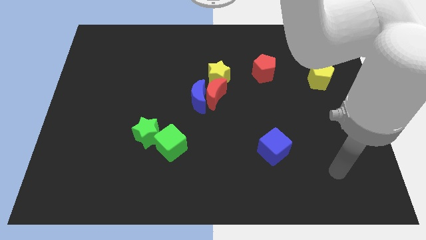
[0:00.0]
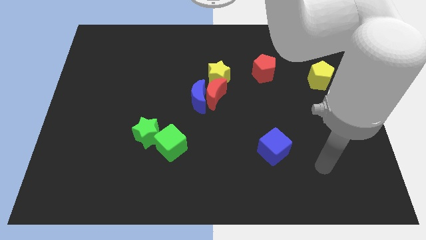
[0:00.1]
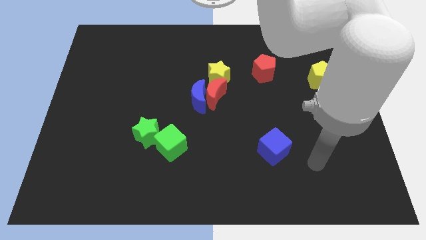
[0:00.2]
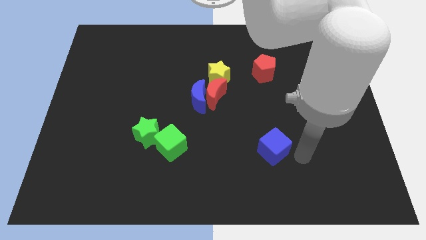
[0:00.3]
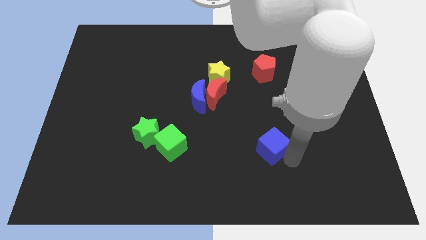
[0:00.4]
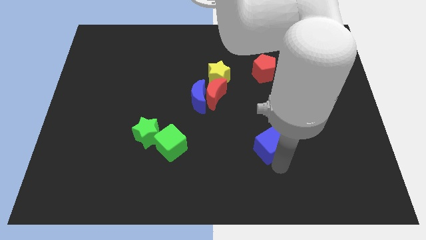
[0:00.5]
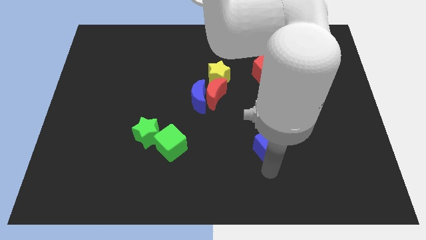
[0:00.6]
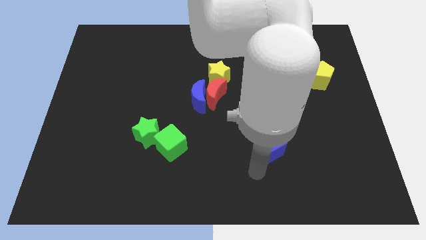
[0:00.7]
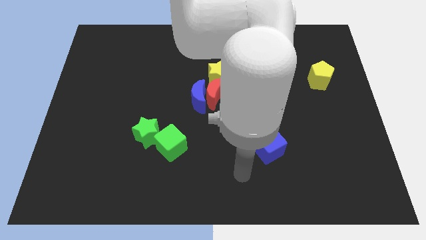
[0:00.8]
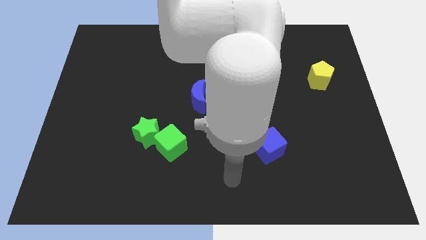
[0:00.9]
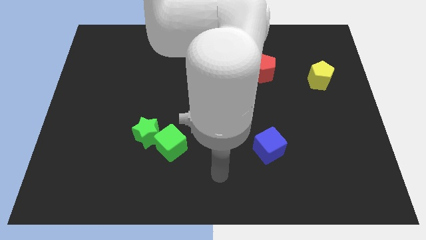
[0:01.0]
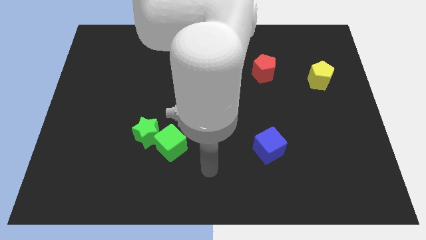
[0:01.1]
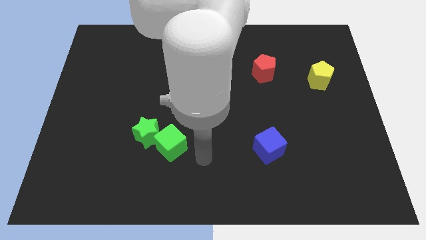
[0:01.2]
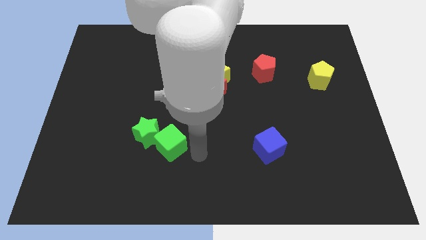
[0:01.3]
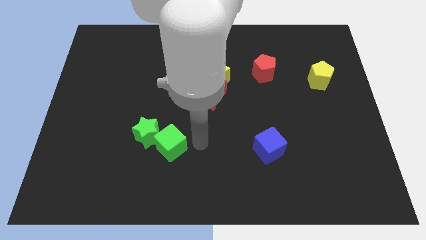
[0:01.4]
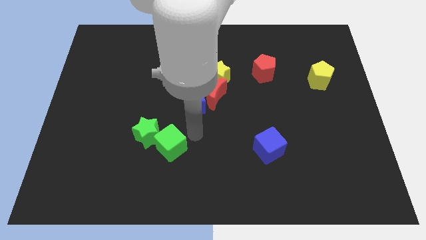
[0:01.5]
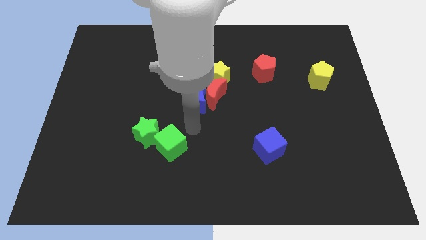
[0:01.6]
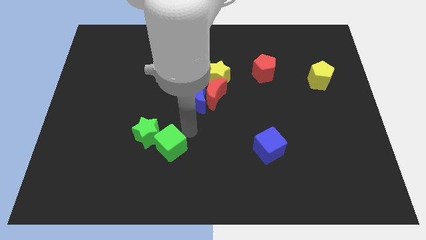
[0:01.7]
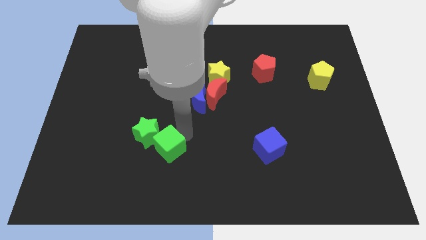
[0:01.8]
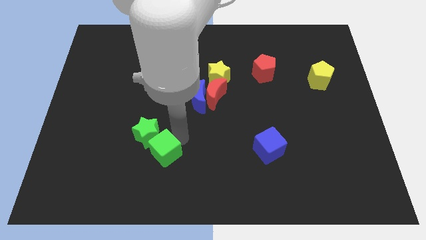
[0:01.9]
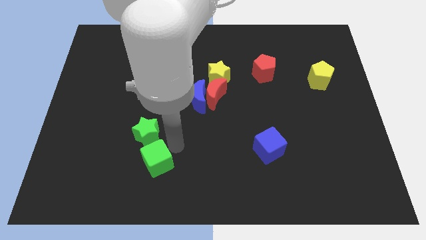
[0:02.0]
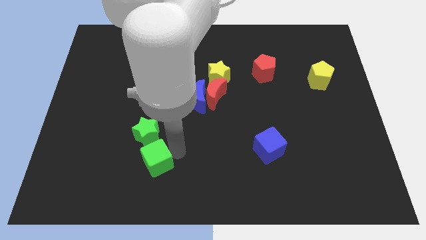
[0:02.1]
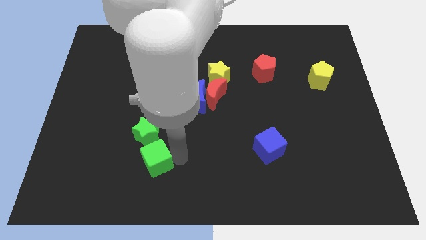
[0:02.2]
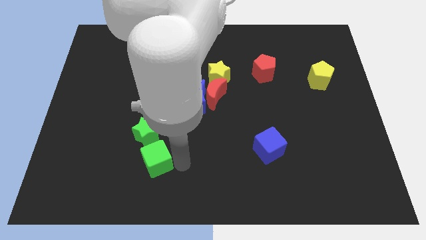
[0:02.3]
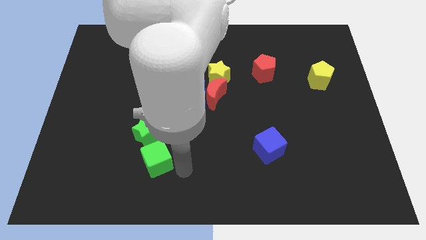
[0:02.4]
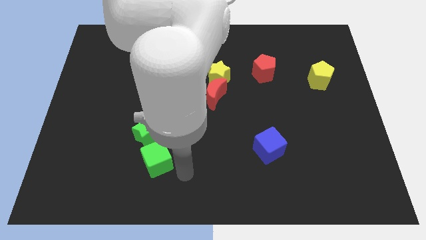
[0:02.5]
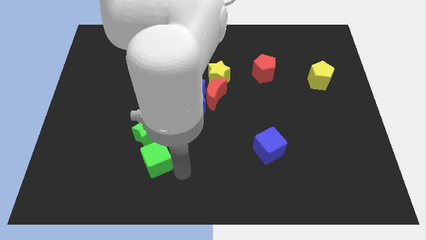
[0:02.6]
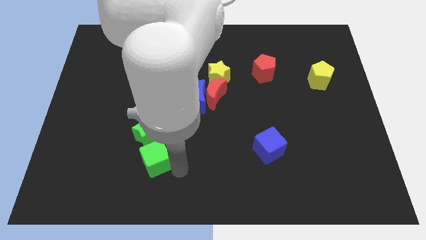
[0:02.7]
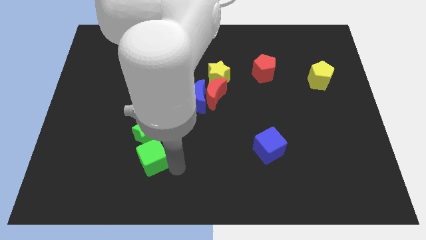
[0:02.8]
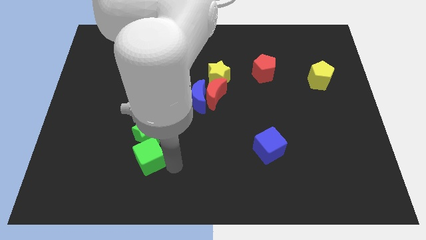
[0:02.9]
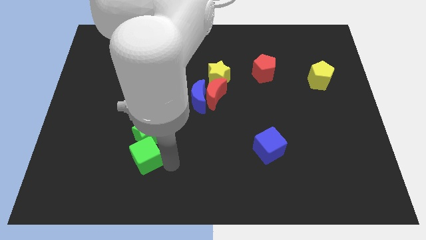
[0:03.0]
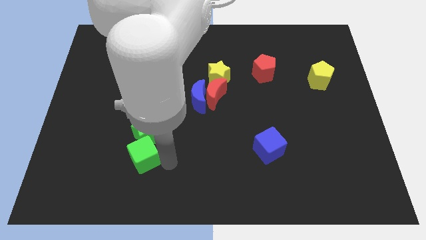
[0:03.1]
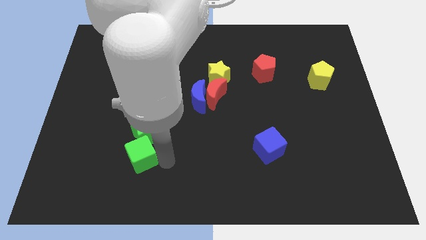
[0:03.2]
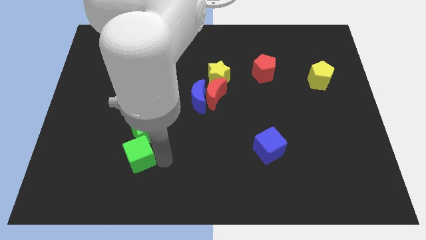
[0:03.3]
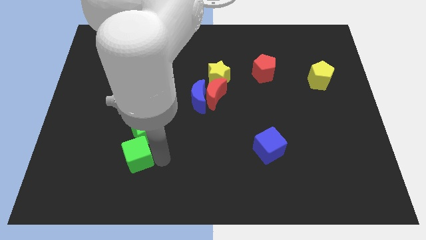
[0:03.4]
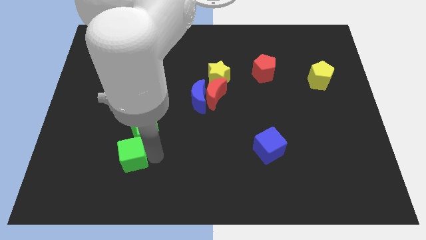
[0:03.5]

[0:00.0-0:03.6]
move the green cube left slightly

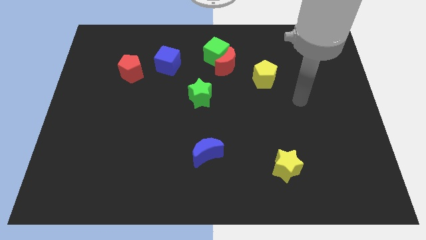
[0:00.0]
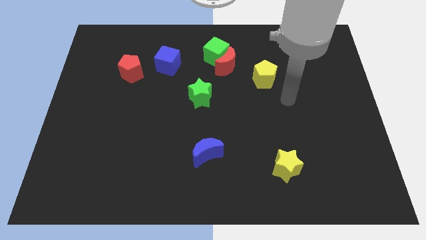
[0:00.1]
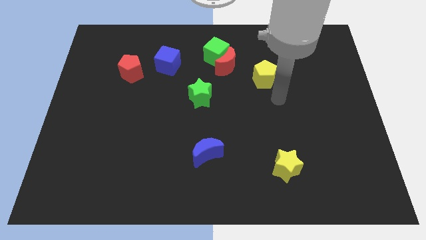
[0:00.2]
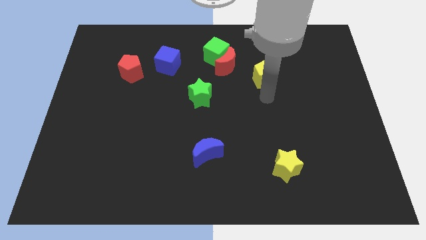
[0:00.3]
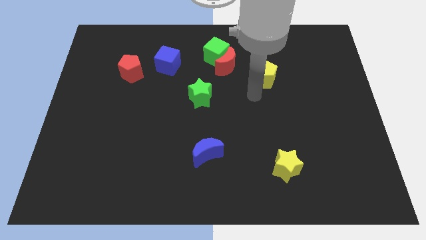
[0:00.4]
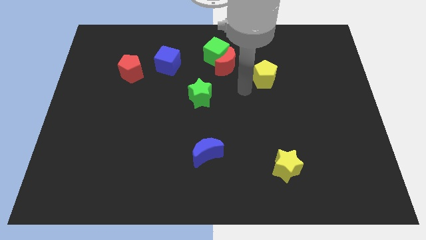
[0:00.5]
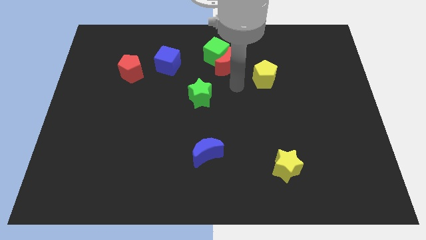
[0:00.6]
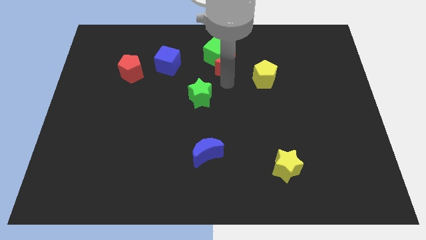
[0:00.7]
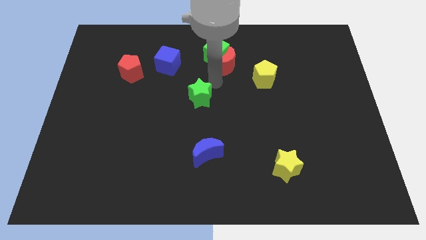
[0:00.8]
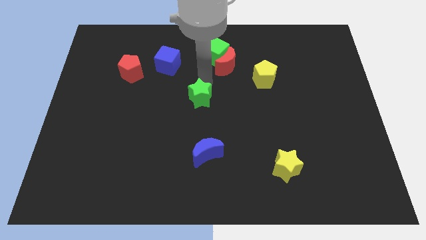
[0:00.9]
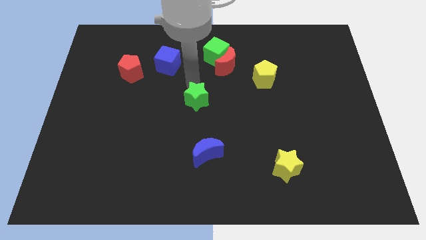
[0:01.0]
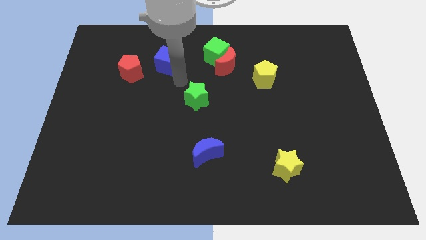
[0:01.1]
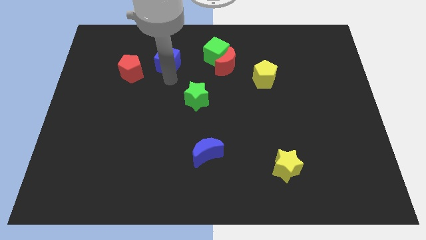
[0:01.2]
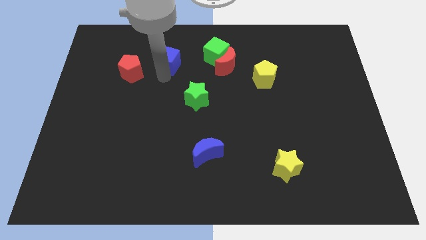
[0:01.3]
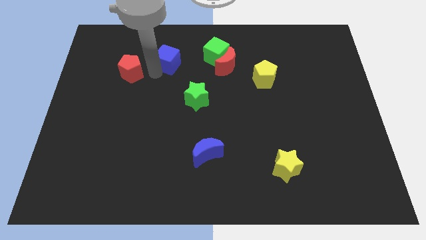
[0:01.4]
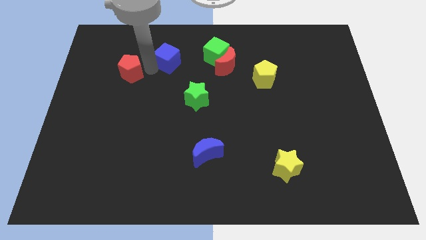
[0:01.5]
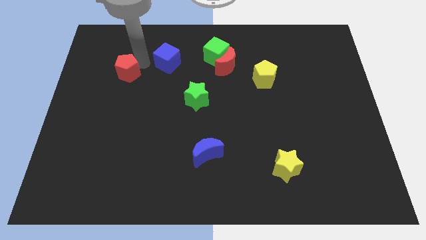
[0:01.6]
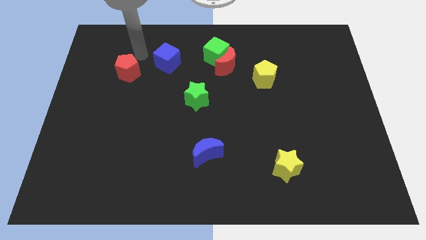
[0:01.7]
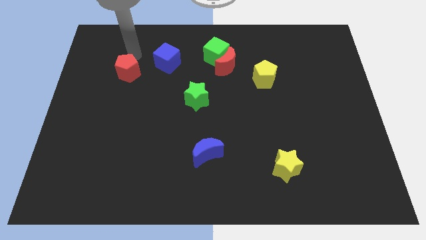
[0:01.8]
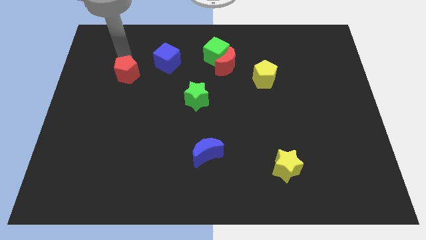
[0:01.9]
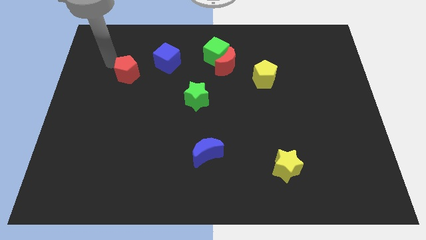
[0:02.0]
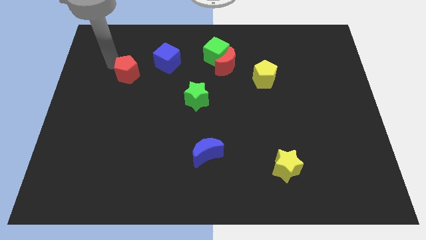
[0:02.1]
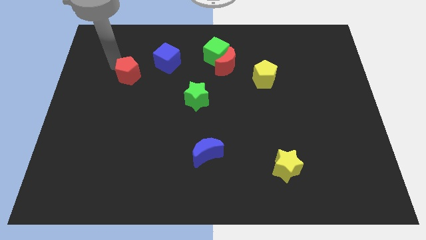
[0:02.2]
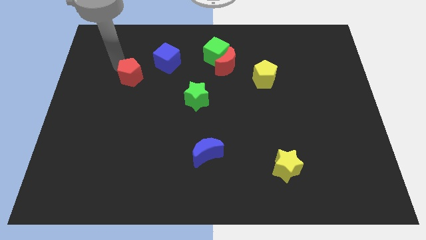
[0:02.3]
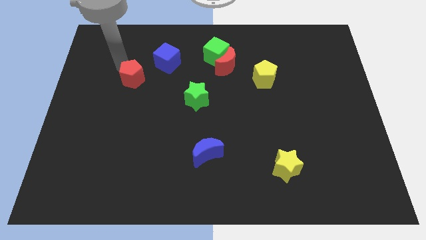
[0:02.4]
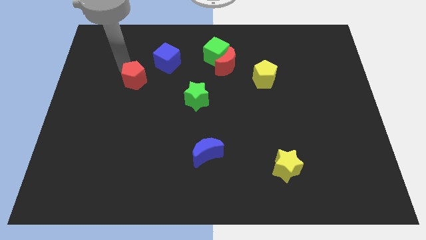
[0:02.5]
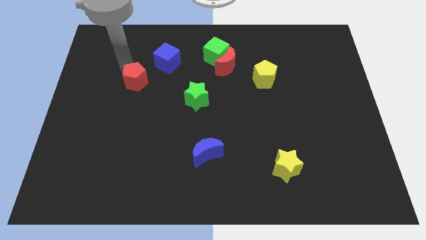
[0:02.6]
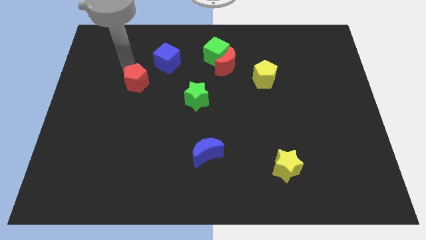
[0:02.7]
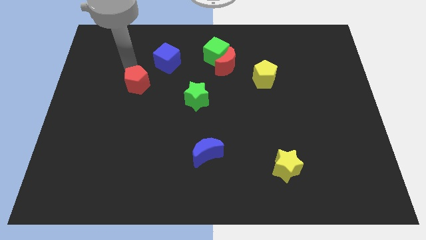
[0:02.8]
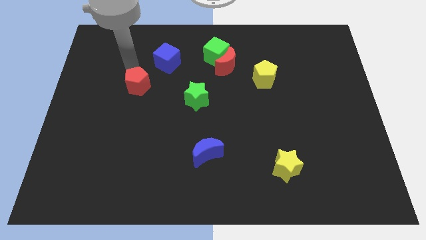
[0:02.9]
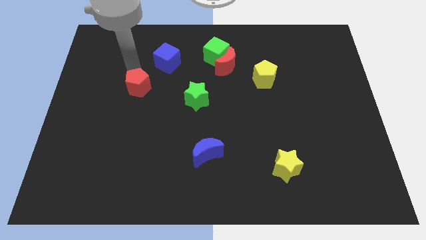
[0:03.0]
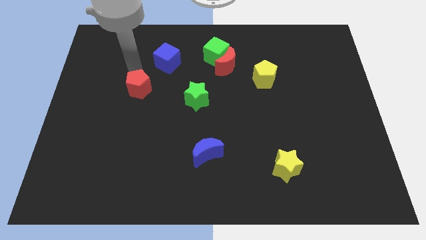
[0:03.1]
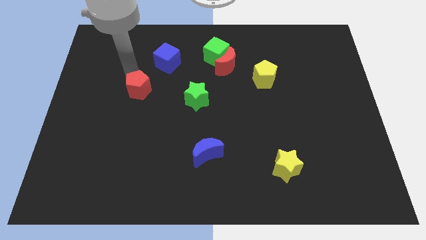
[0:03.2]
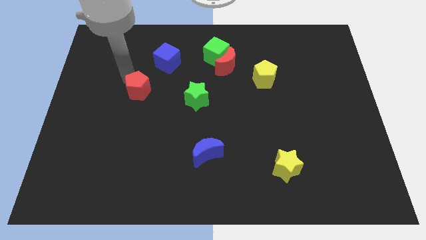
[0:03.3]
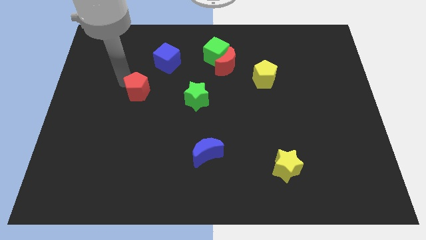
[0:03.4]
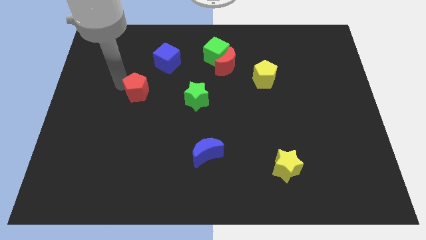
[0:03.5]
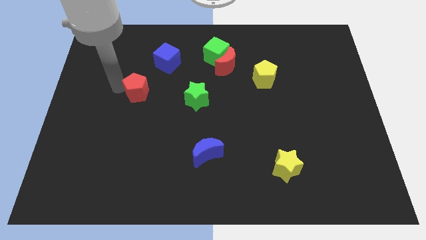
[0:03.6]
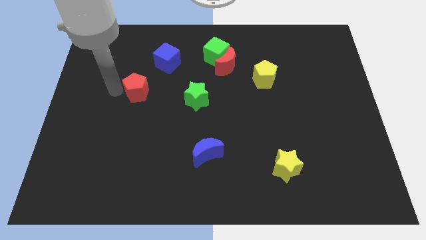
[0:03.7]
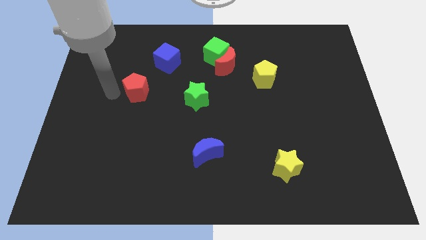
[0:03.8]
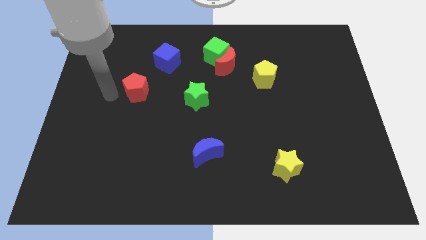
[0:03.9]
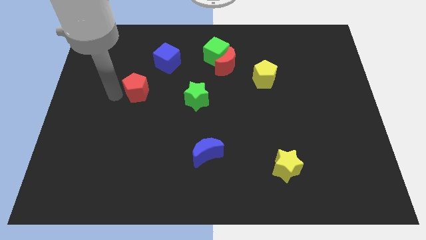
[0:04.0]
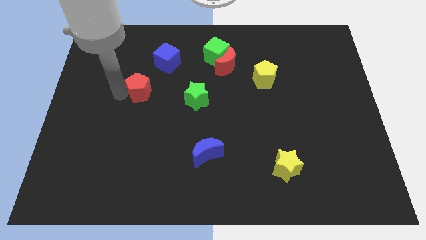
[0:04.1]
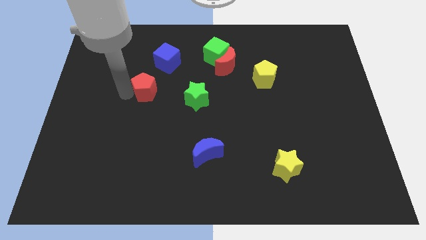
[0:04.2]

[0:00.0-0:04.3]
slightly push the red pentagon down and right diagonally

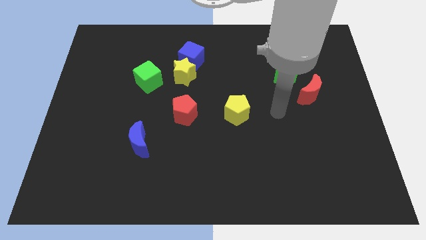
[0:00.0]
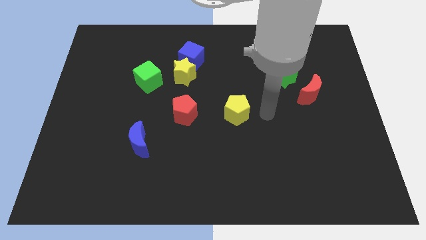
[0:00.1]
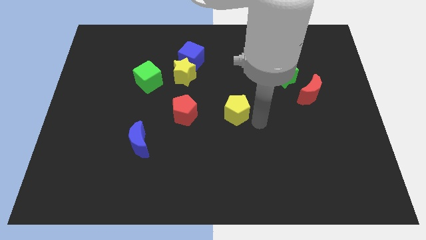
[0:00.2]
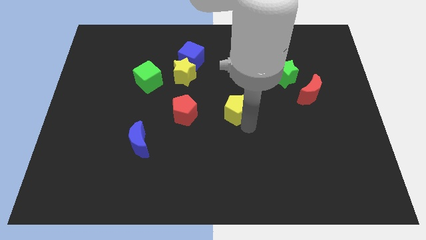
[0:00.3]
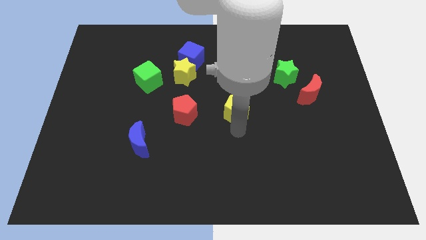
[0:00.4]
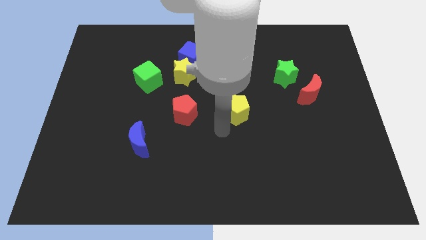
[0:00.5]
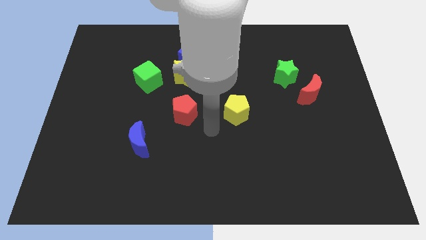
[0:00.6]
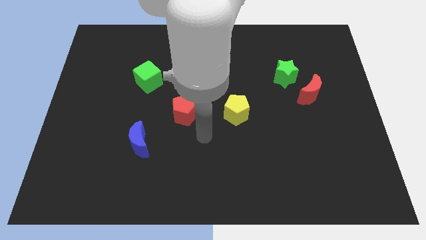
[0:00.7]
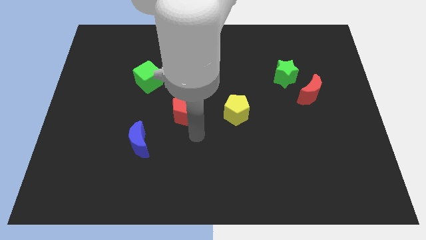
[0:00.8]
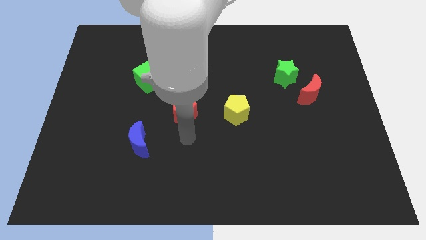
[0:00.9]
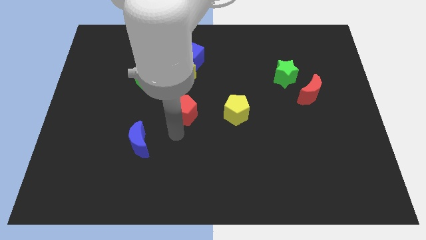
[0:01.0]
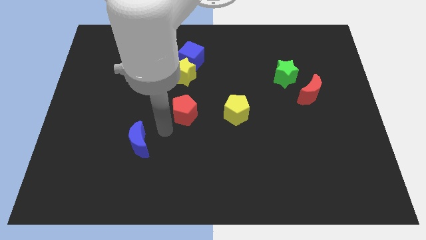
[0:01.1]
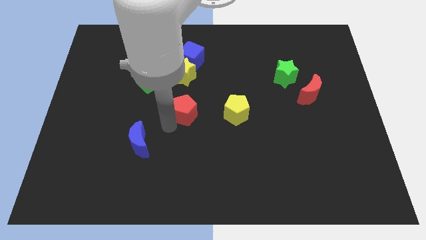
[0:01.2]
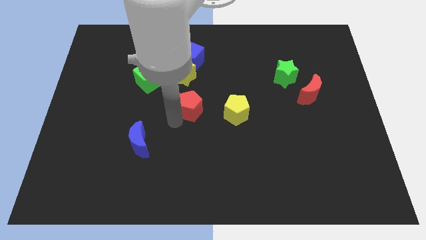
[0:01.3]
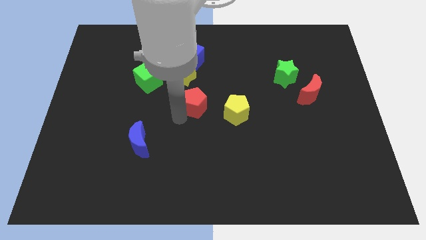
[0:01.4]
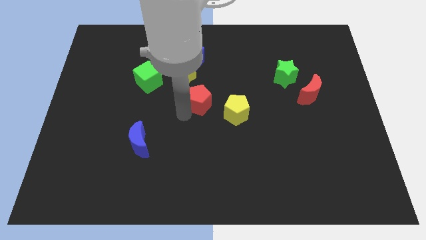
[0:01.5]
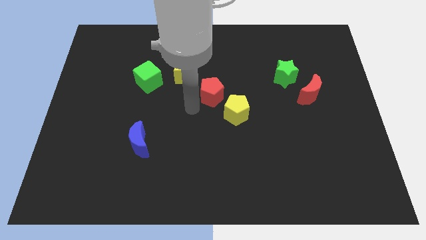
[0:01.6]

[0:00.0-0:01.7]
slightly move the red pentagon upwards and right
